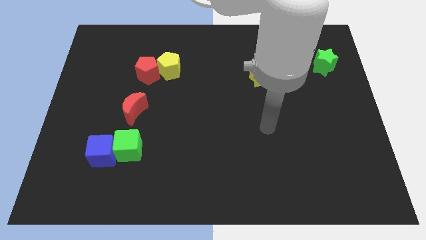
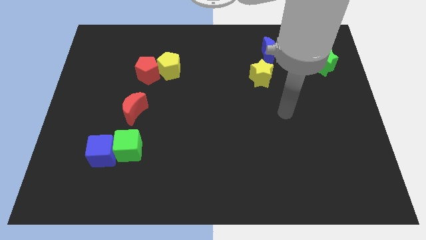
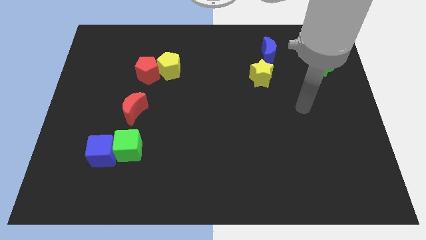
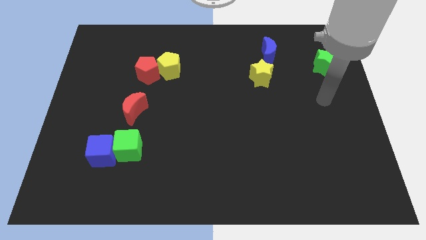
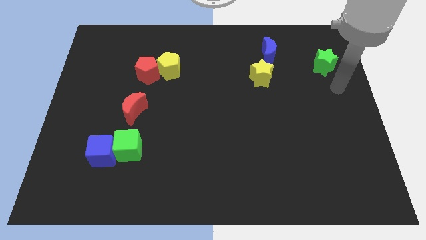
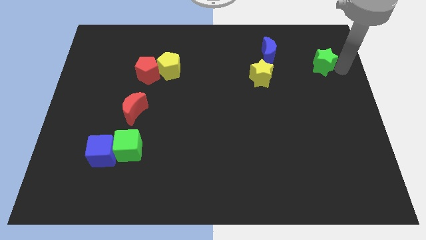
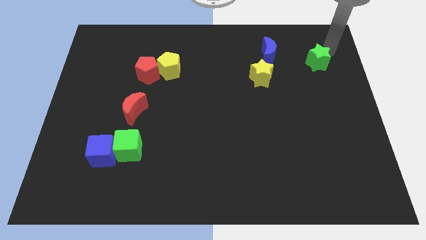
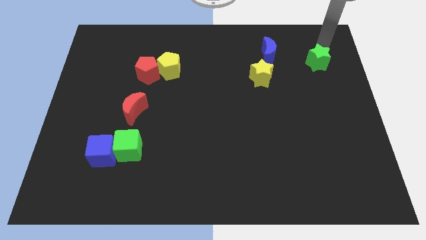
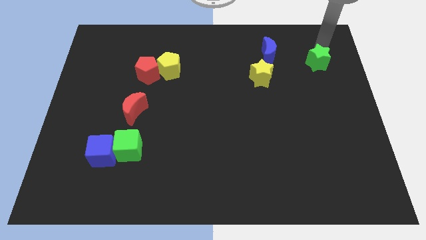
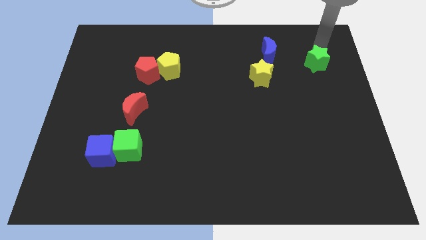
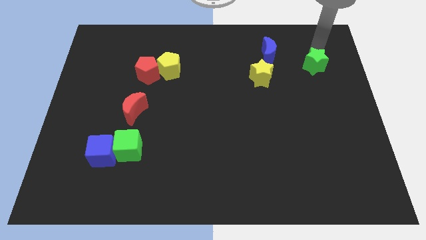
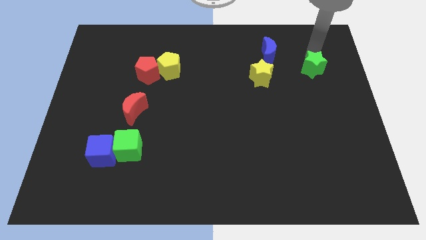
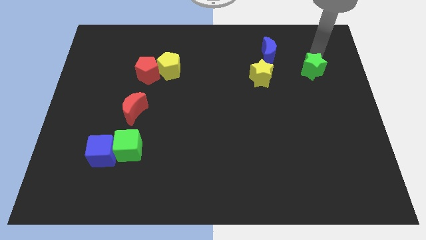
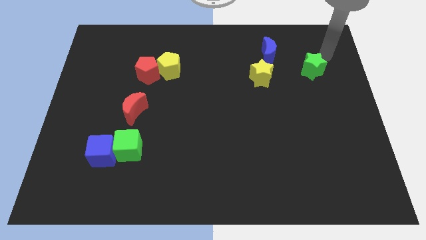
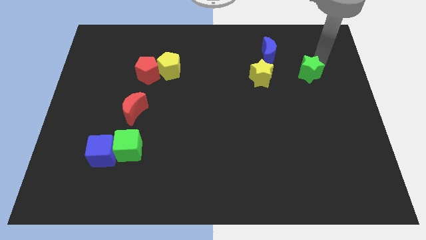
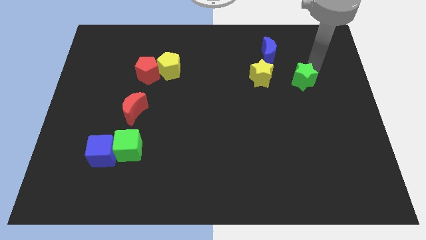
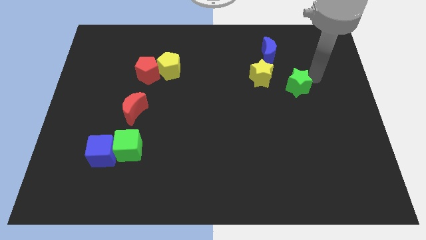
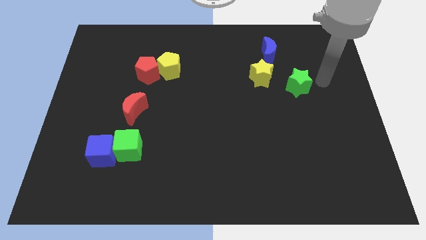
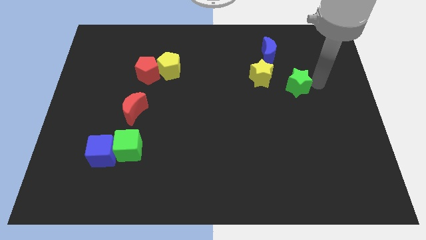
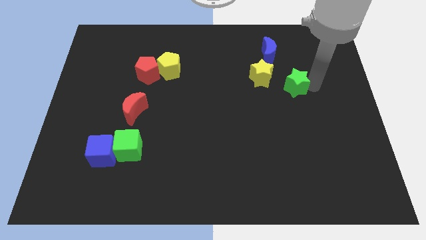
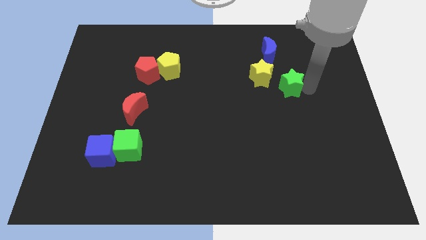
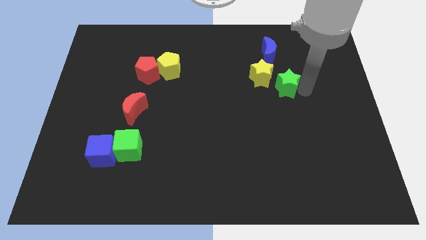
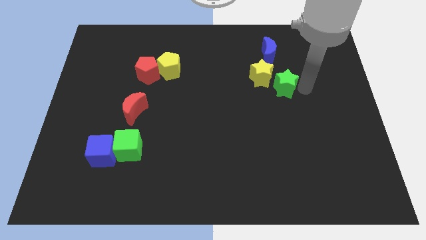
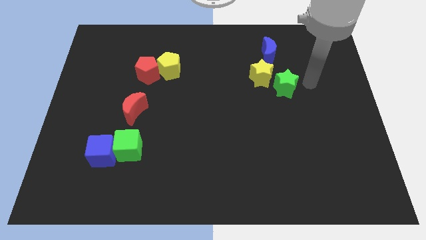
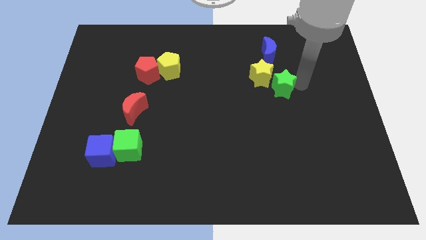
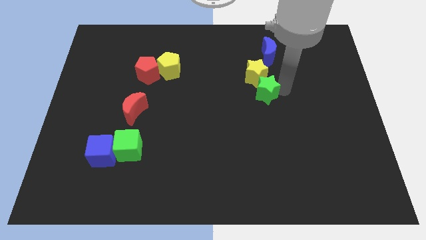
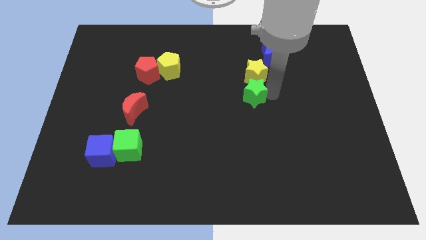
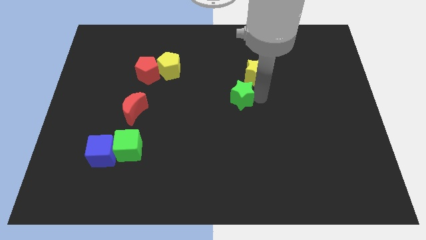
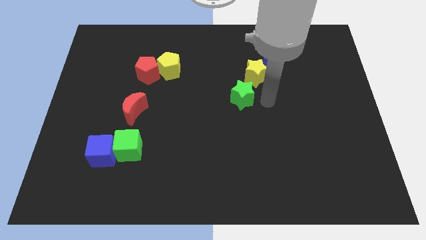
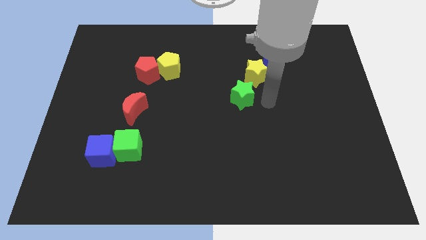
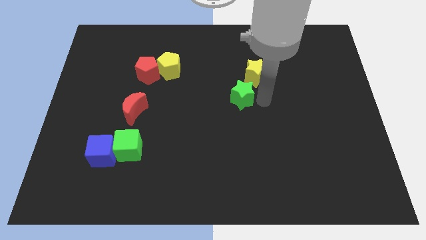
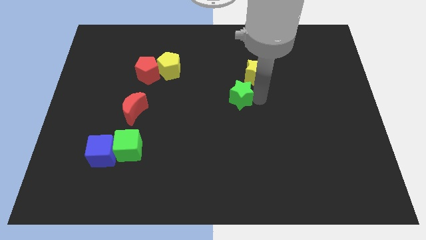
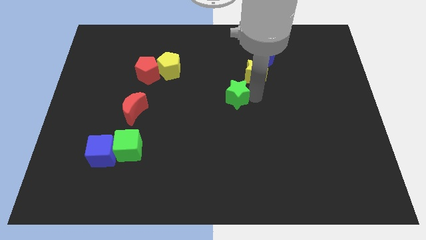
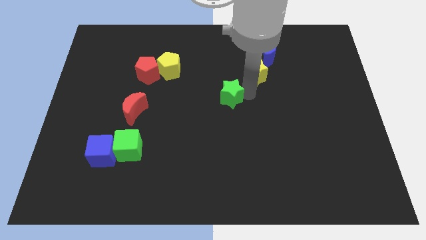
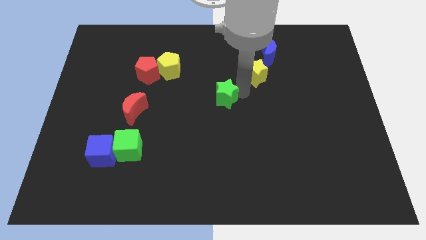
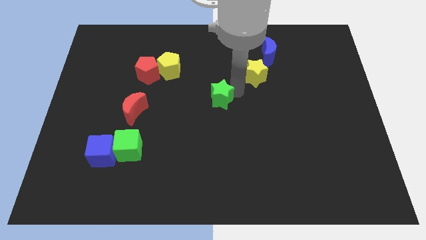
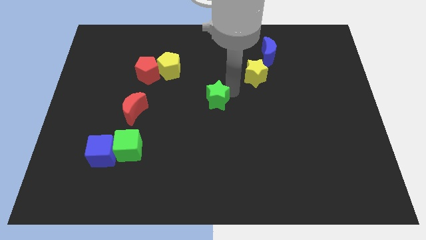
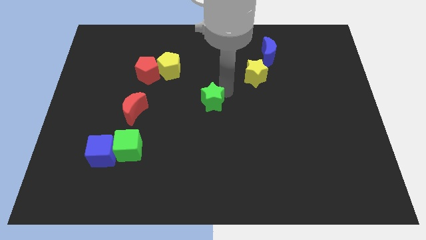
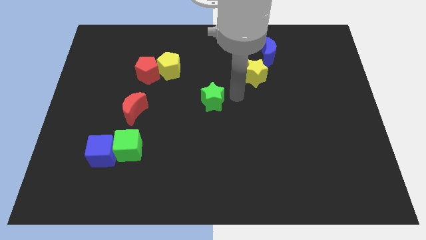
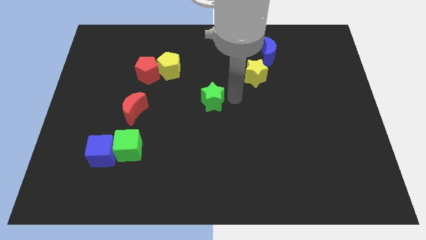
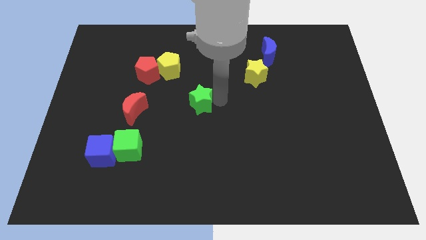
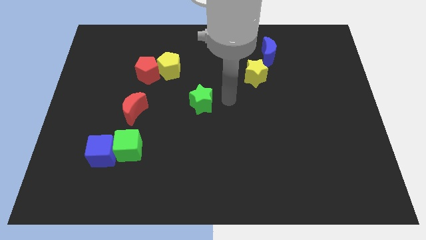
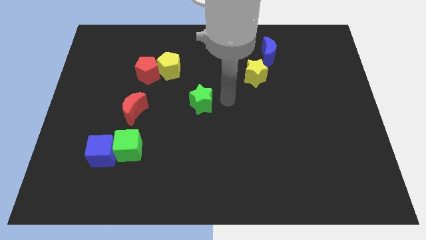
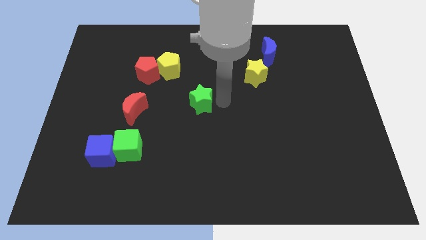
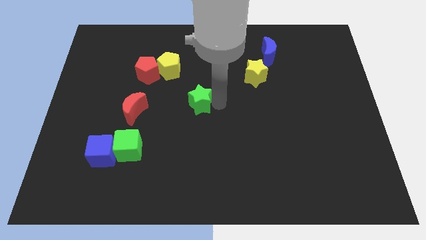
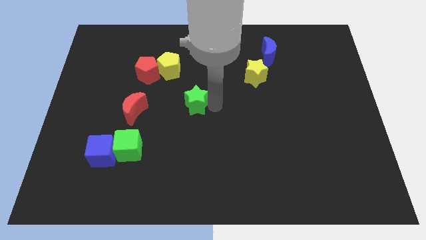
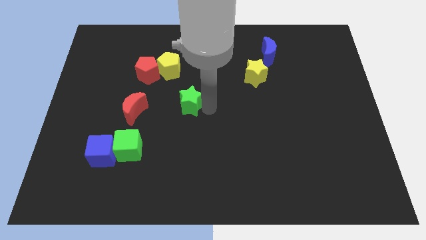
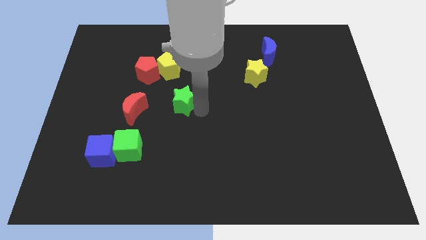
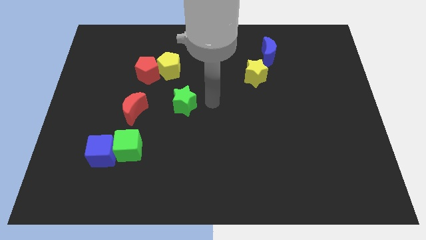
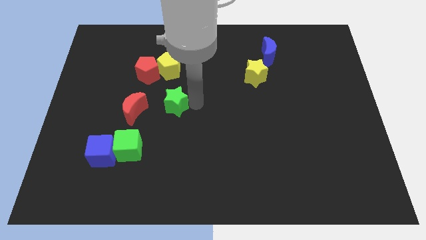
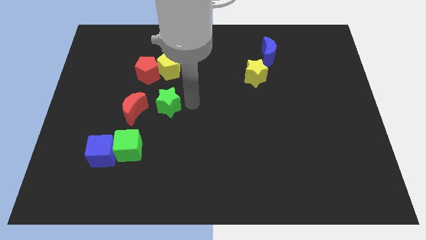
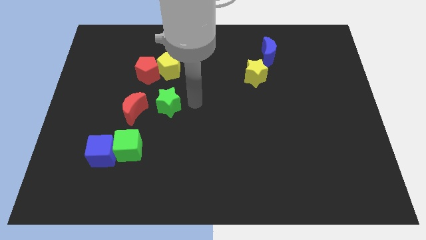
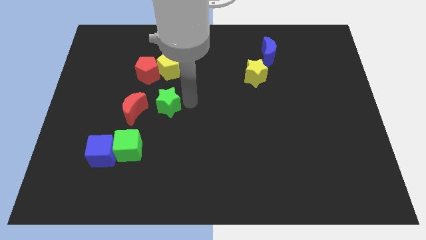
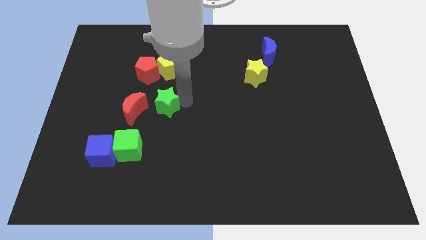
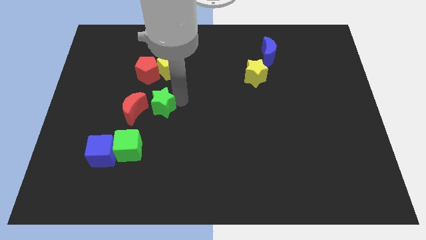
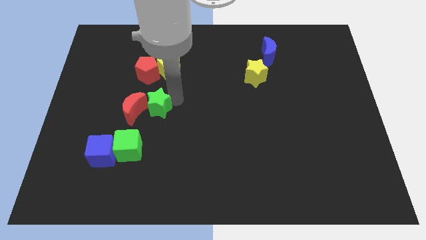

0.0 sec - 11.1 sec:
put the green star to the red moon

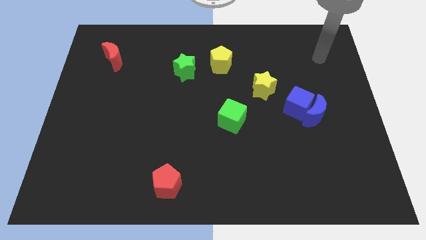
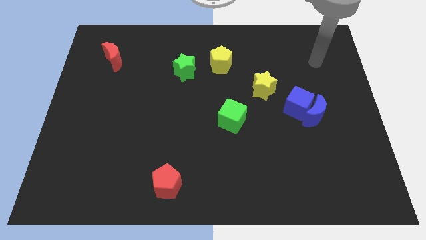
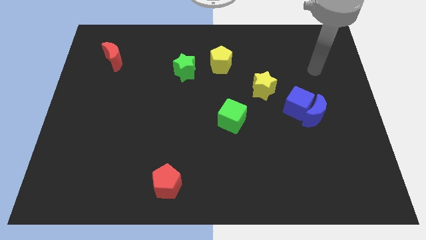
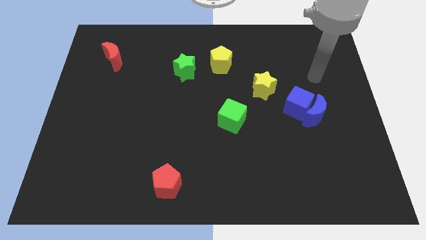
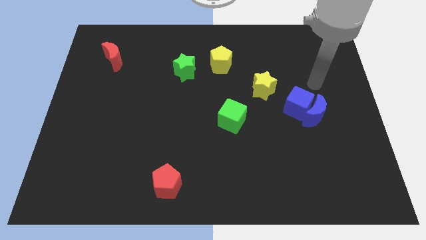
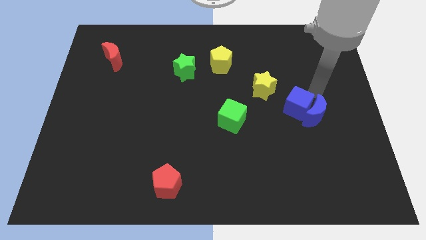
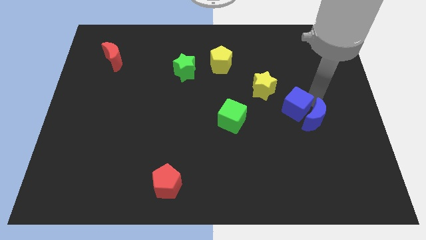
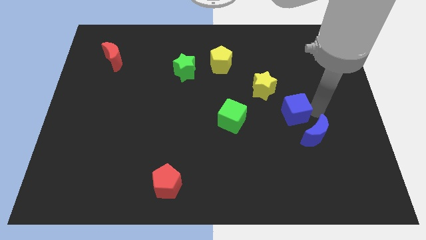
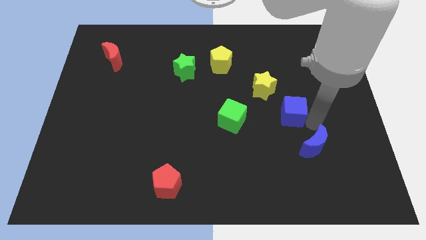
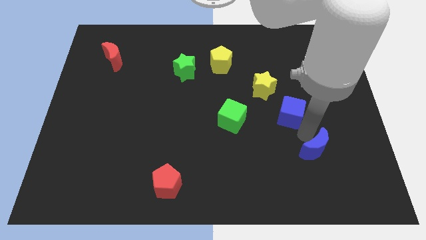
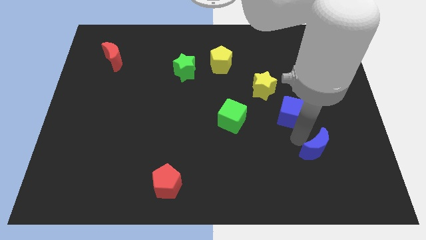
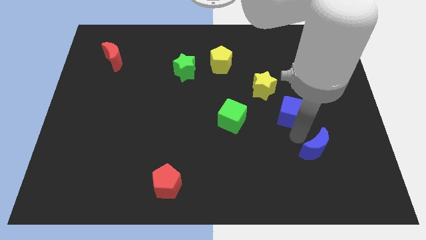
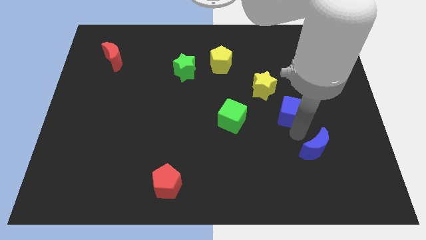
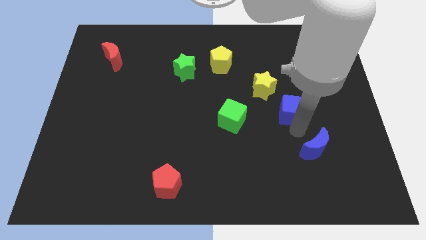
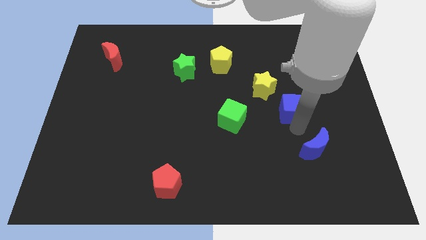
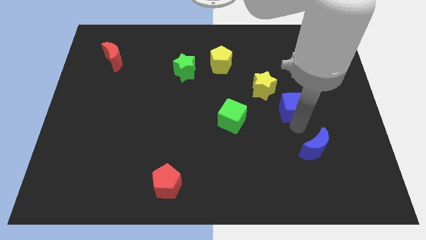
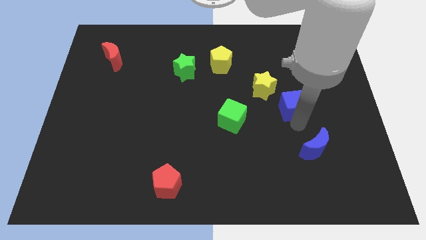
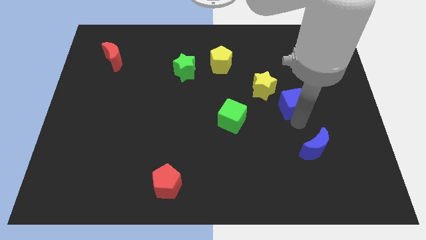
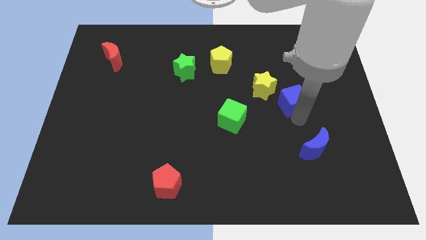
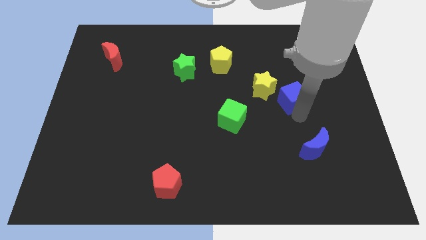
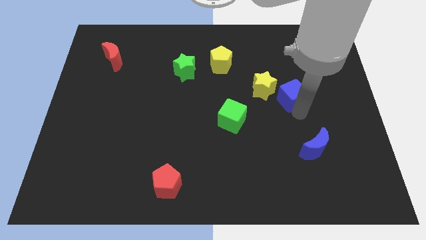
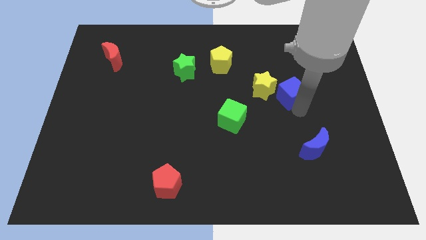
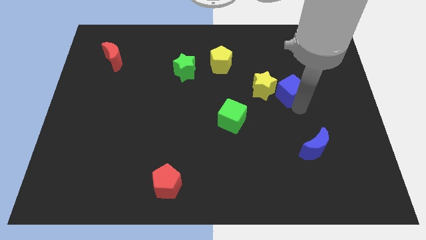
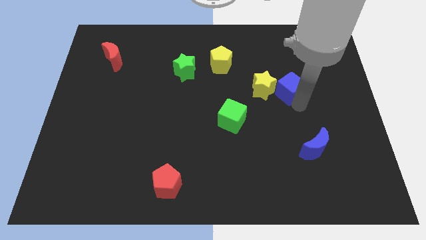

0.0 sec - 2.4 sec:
push the blue cube next to the yellow star
